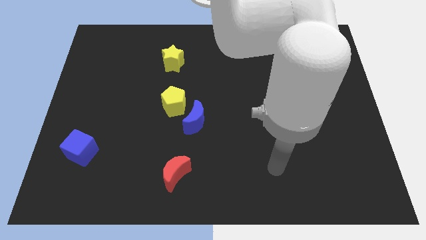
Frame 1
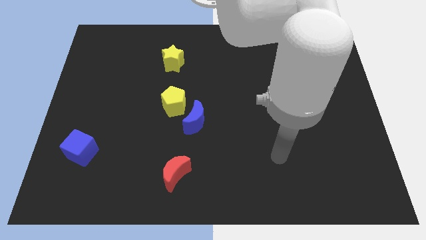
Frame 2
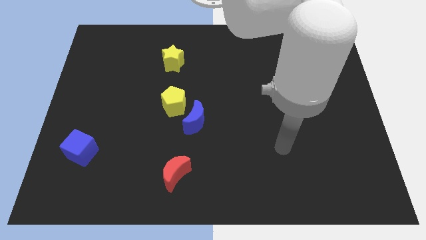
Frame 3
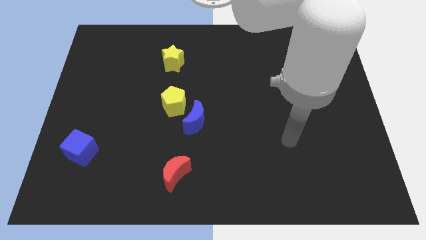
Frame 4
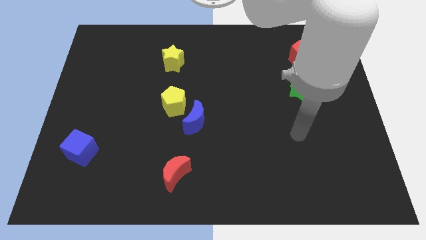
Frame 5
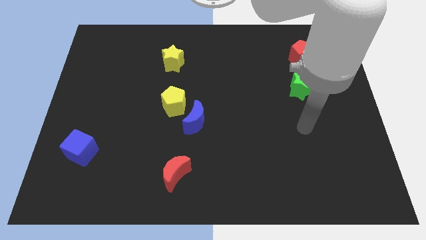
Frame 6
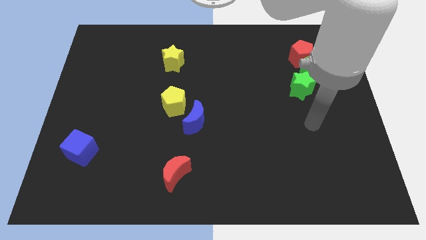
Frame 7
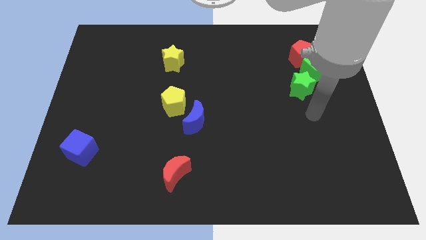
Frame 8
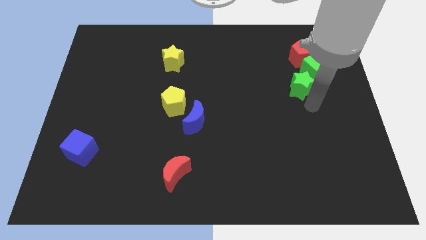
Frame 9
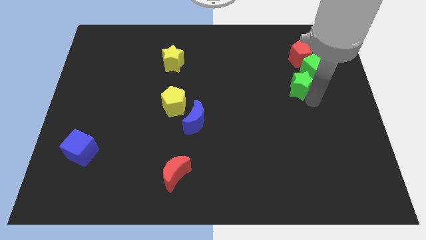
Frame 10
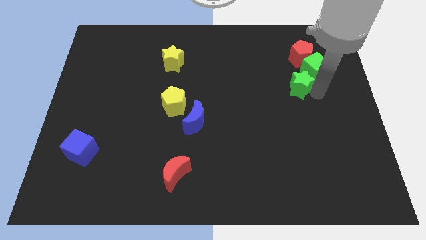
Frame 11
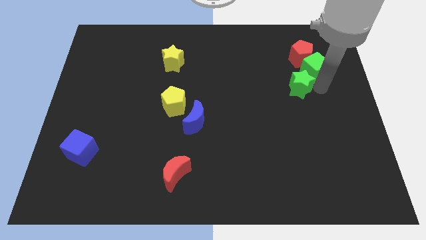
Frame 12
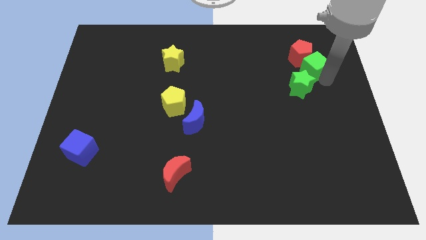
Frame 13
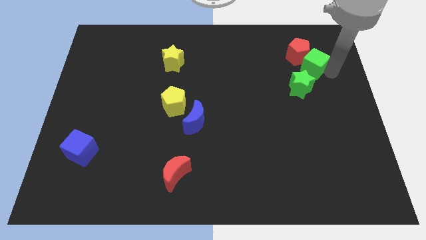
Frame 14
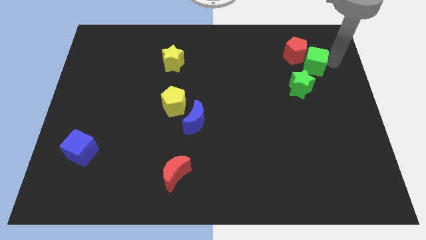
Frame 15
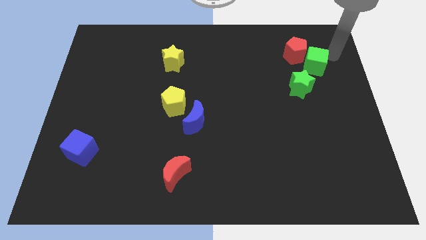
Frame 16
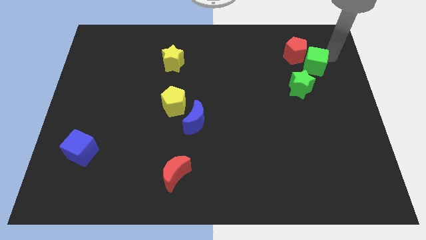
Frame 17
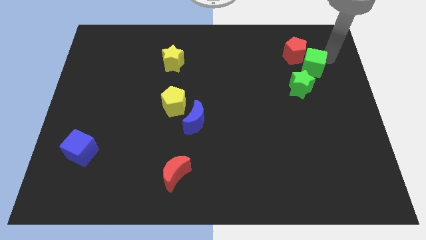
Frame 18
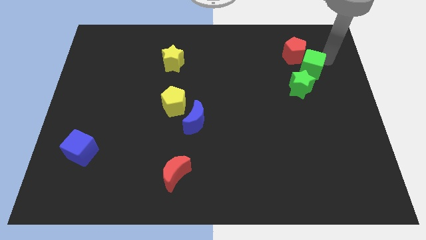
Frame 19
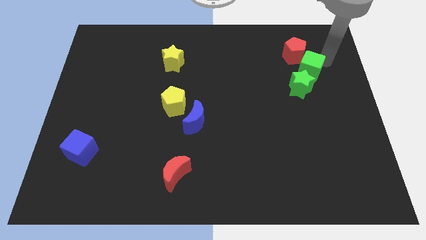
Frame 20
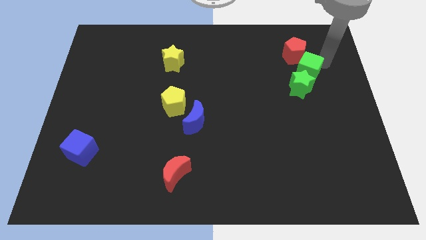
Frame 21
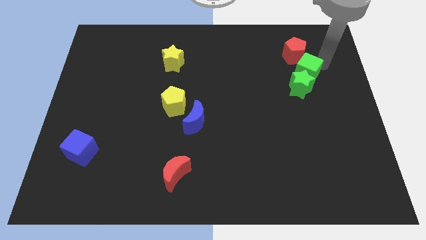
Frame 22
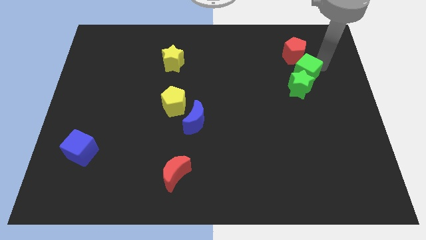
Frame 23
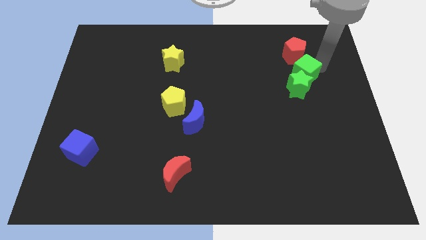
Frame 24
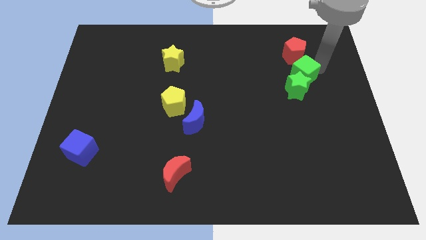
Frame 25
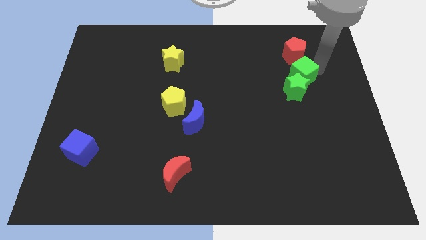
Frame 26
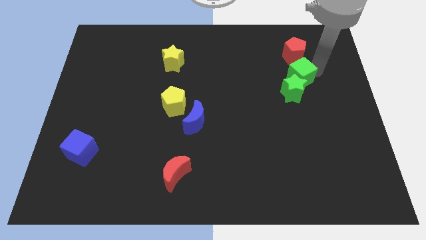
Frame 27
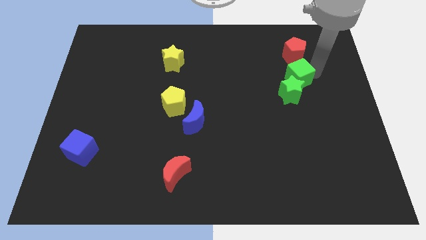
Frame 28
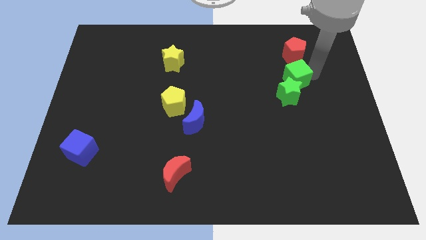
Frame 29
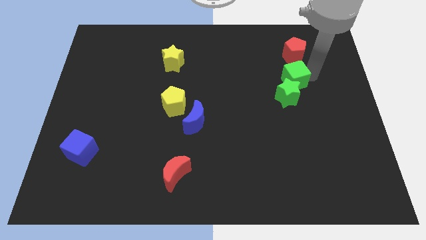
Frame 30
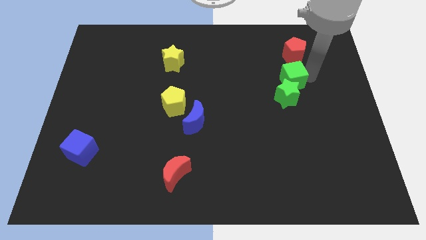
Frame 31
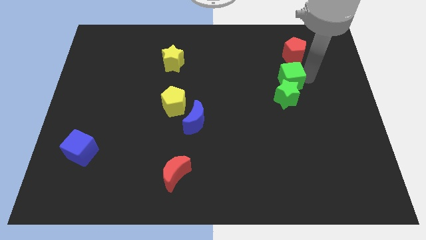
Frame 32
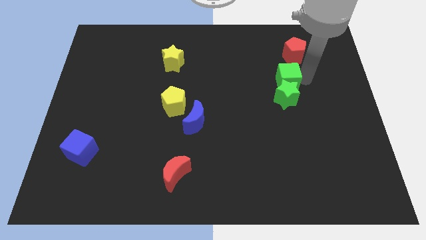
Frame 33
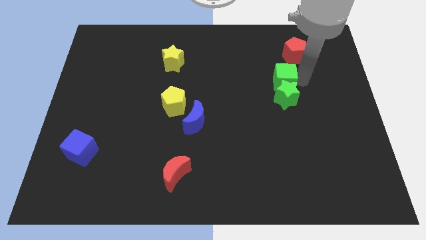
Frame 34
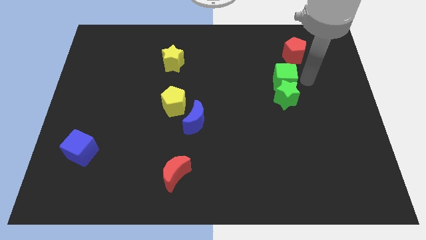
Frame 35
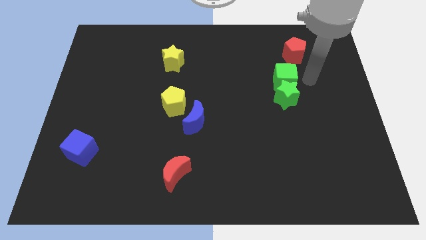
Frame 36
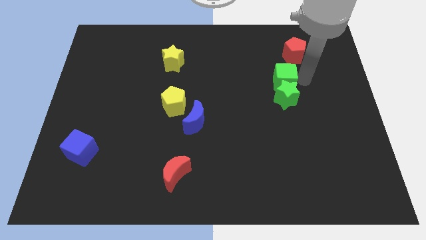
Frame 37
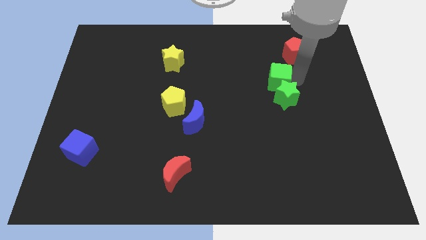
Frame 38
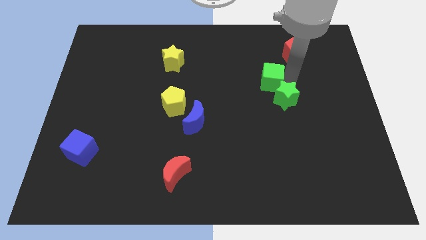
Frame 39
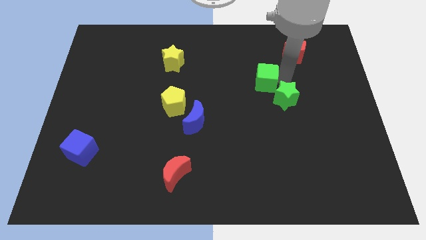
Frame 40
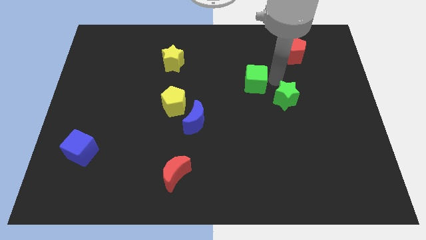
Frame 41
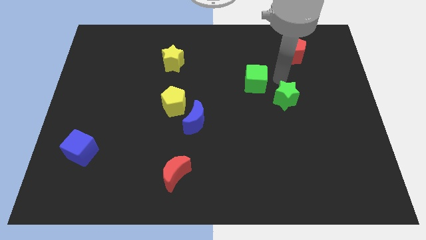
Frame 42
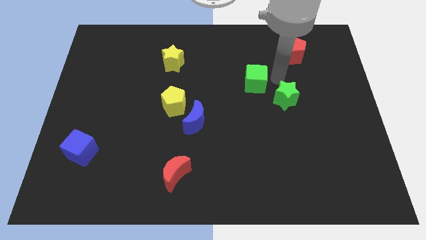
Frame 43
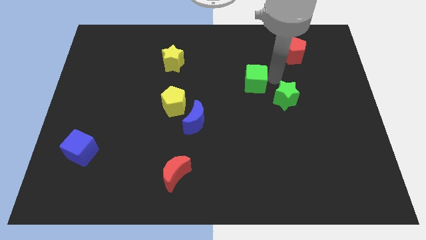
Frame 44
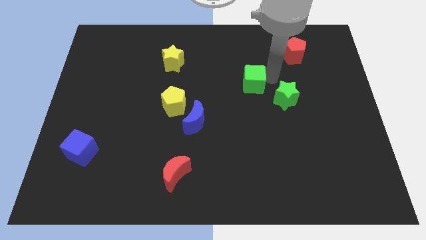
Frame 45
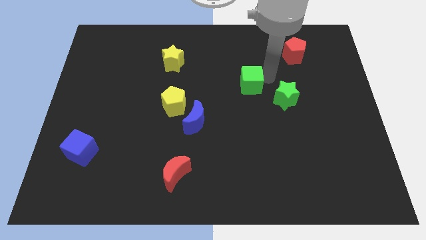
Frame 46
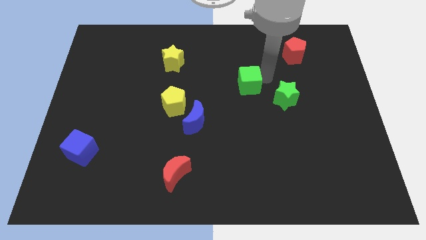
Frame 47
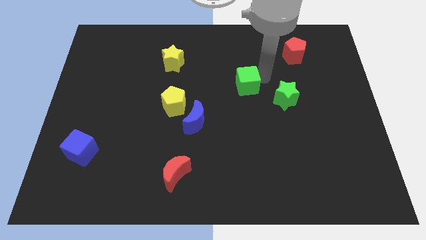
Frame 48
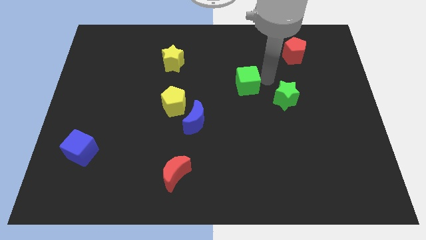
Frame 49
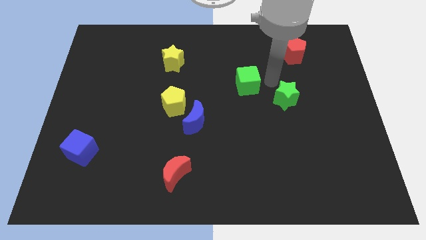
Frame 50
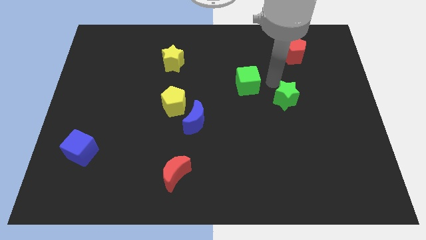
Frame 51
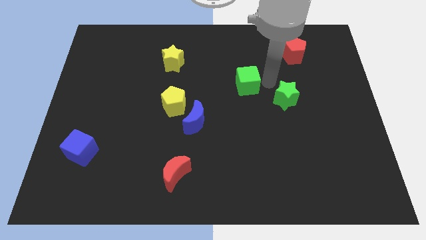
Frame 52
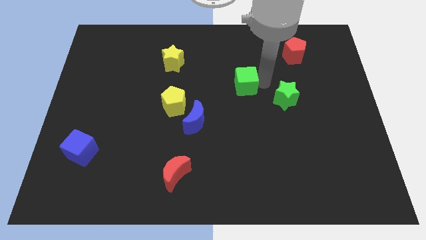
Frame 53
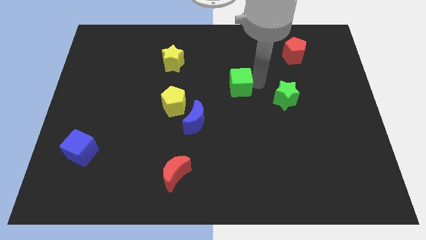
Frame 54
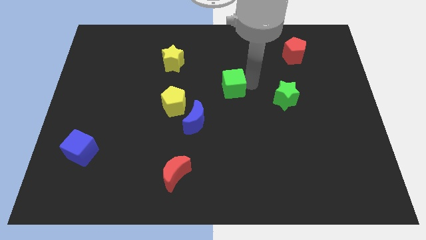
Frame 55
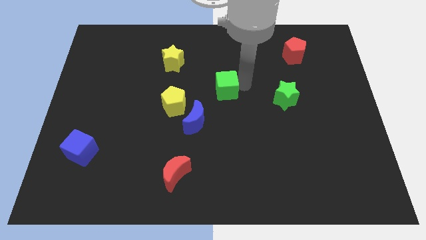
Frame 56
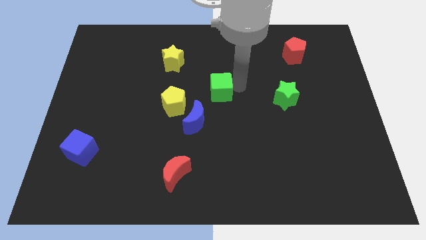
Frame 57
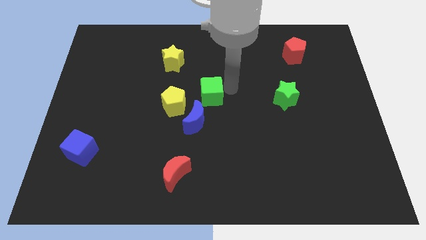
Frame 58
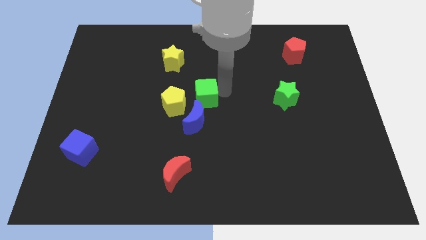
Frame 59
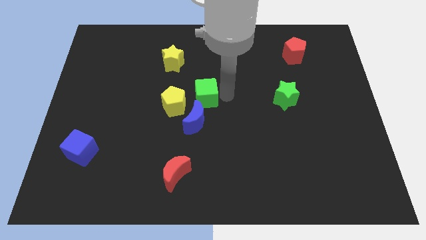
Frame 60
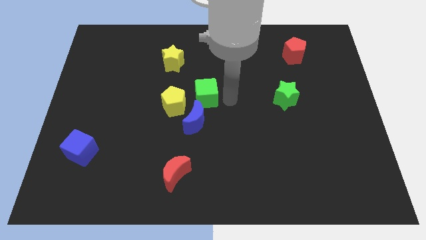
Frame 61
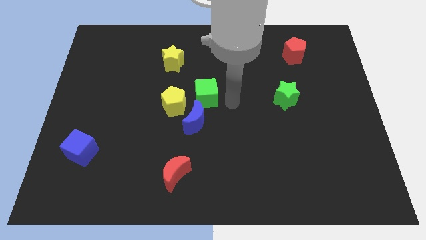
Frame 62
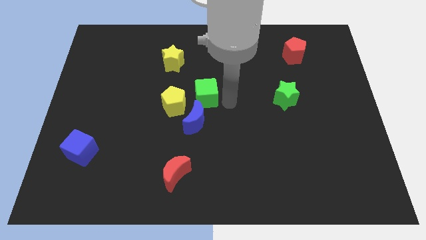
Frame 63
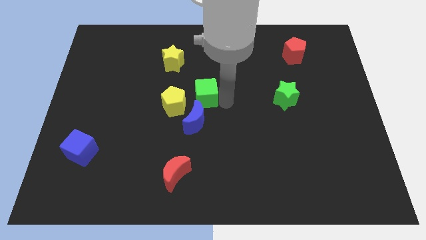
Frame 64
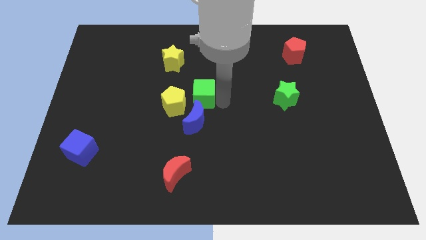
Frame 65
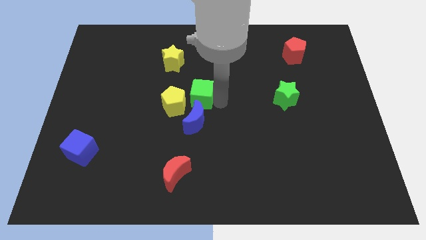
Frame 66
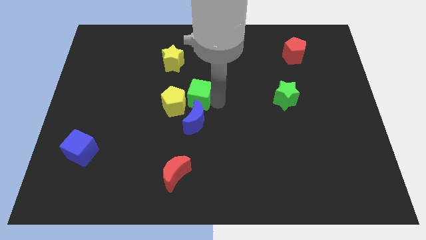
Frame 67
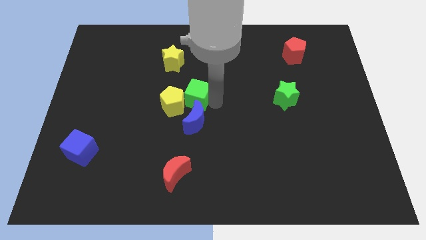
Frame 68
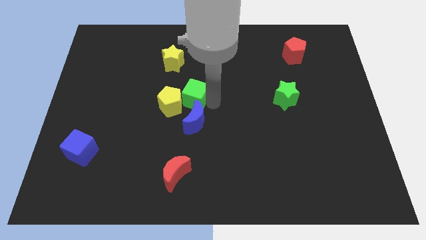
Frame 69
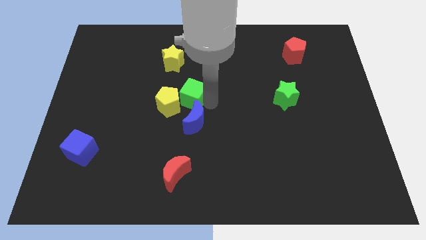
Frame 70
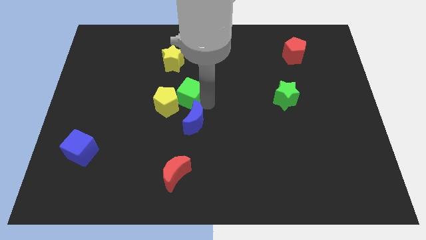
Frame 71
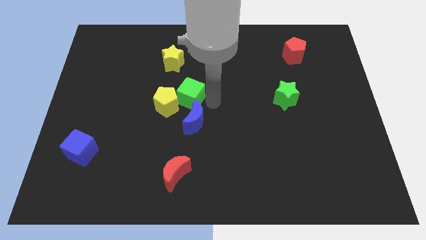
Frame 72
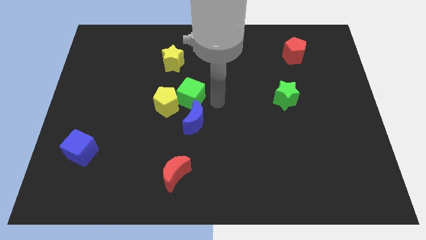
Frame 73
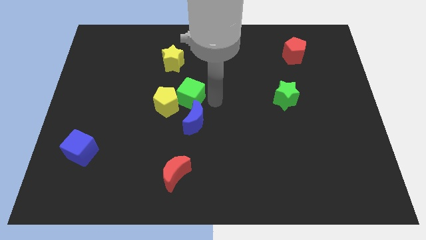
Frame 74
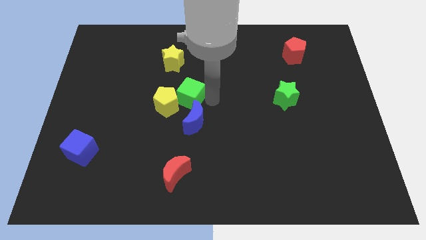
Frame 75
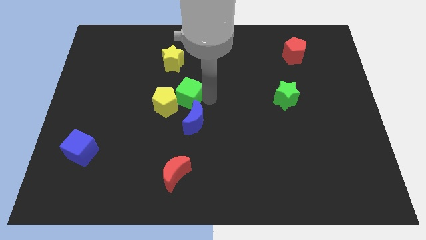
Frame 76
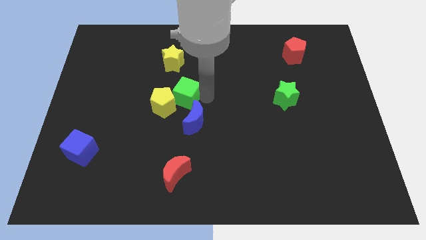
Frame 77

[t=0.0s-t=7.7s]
move the green cube below the yellow star
